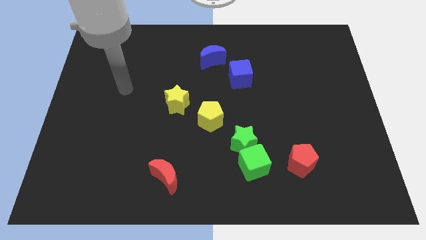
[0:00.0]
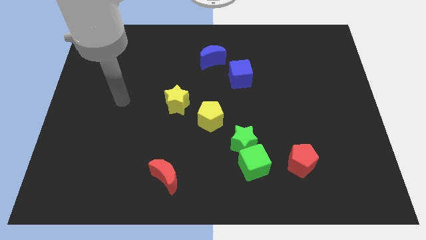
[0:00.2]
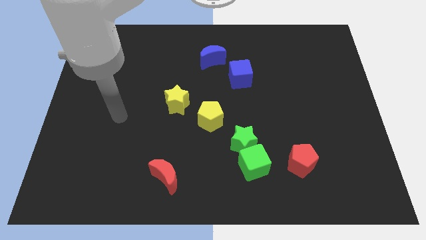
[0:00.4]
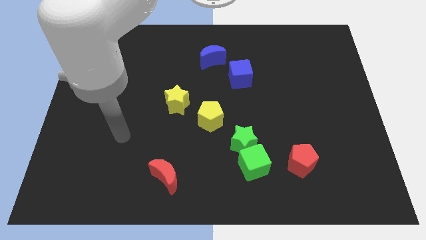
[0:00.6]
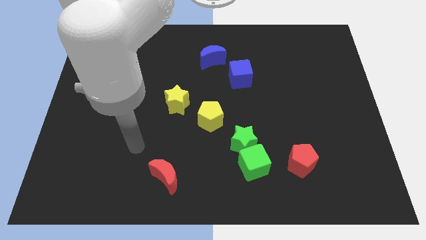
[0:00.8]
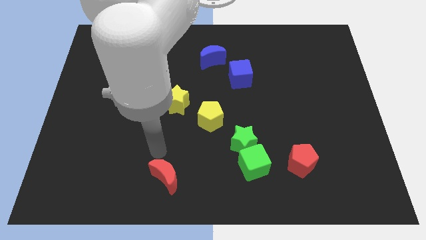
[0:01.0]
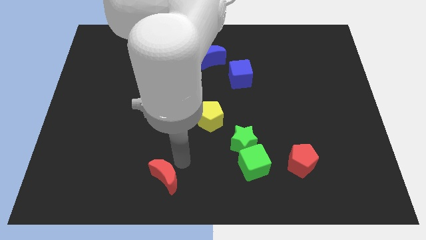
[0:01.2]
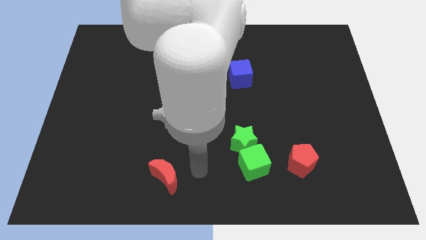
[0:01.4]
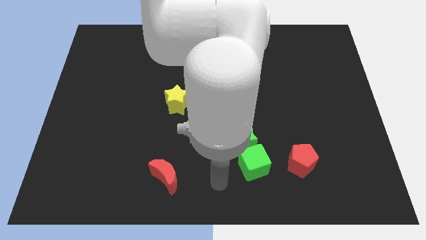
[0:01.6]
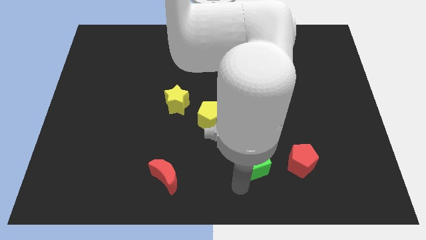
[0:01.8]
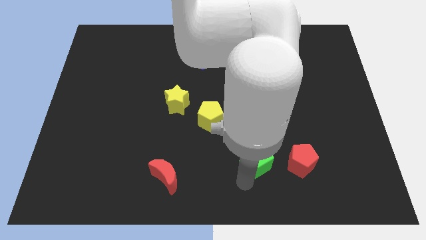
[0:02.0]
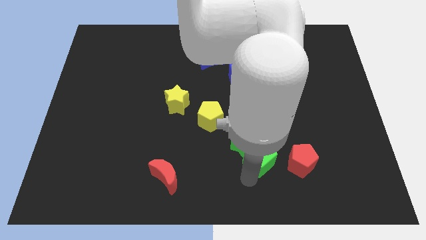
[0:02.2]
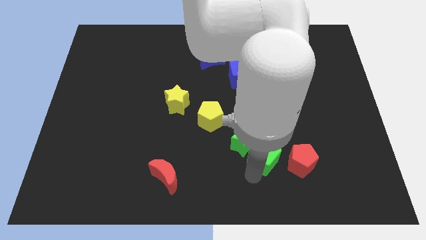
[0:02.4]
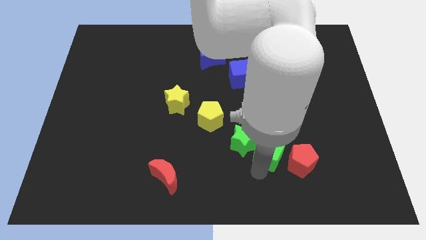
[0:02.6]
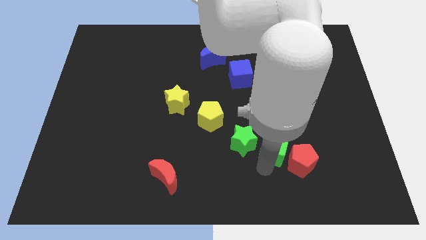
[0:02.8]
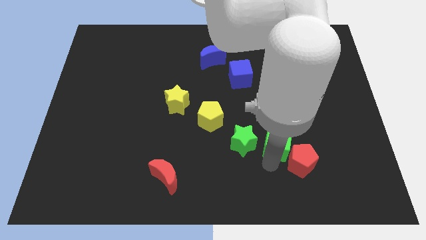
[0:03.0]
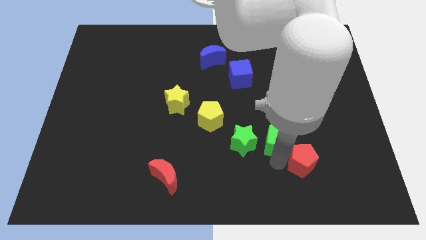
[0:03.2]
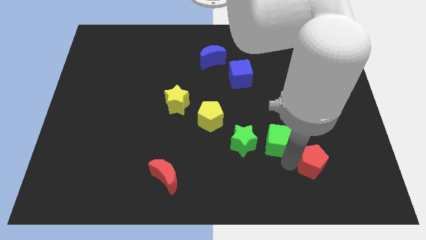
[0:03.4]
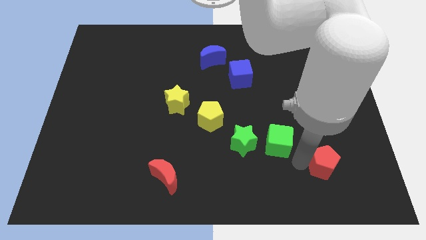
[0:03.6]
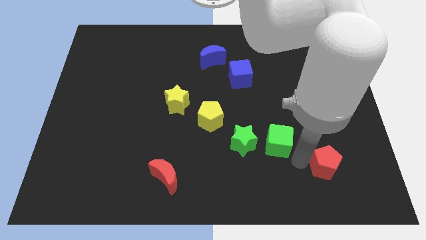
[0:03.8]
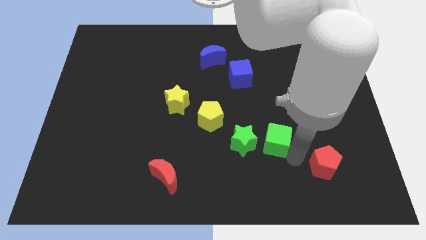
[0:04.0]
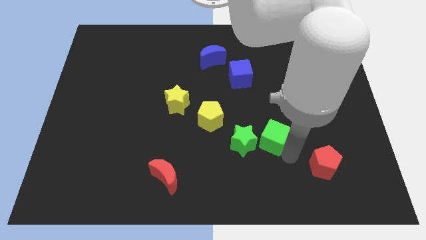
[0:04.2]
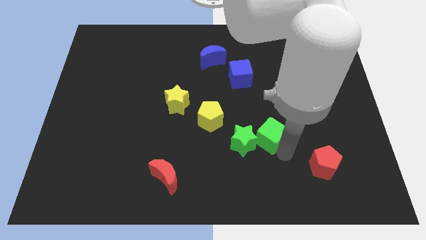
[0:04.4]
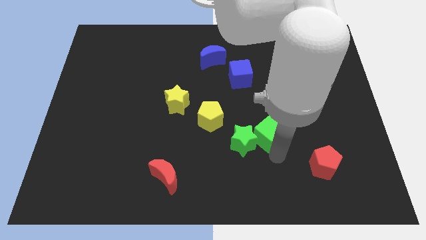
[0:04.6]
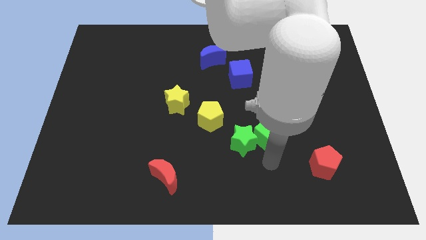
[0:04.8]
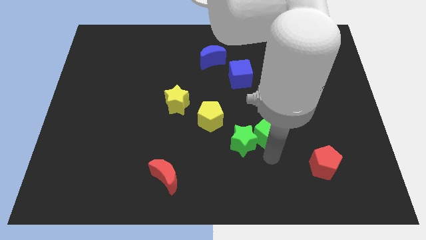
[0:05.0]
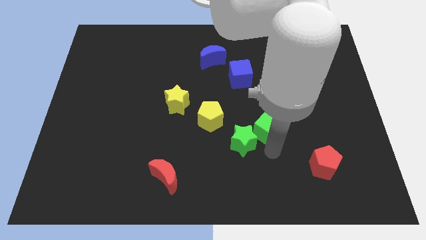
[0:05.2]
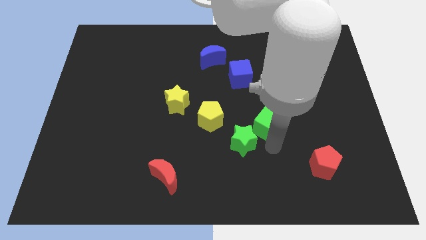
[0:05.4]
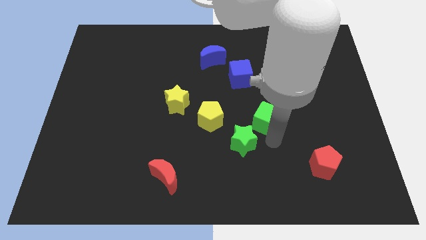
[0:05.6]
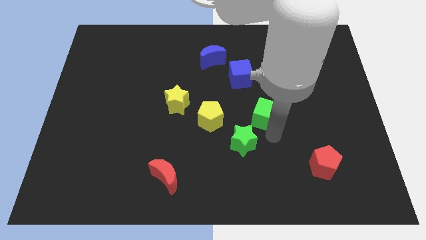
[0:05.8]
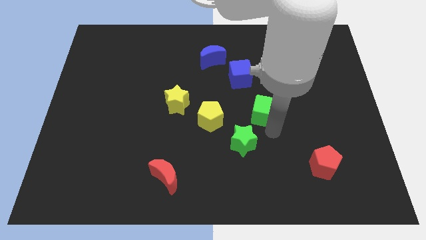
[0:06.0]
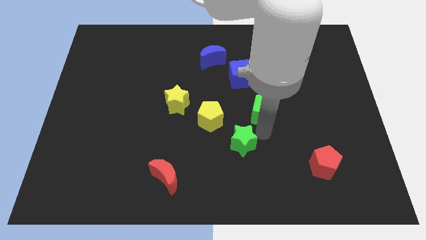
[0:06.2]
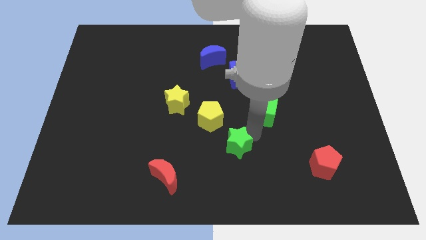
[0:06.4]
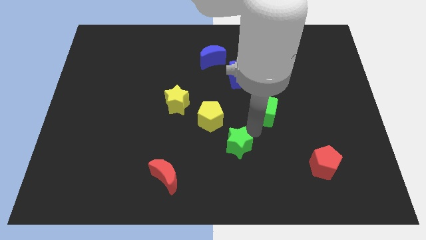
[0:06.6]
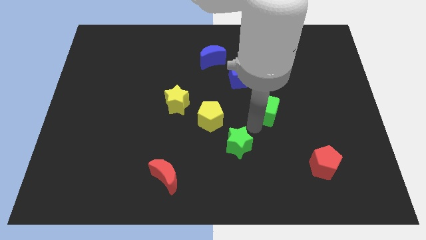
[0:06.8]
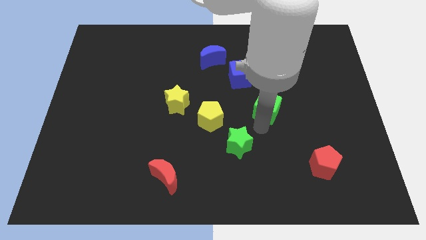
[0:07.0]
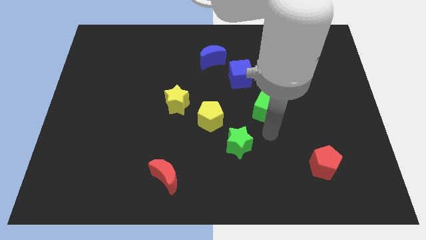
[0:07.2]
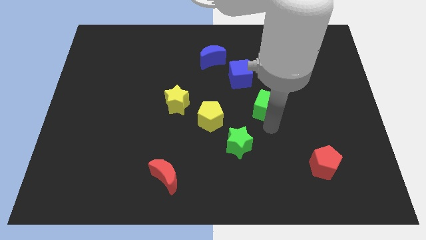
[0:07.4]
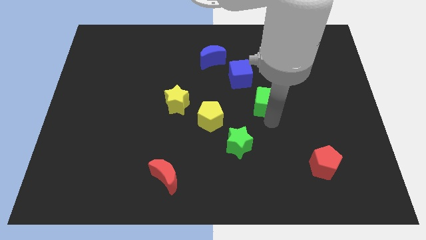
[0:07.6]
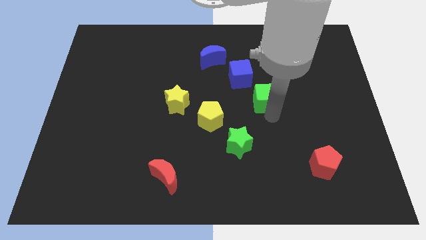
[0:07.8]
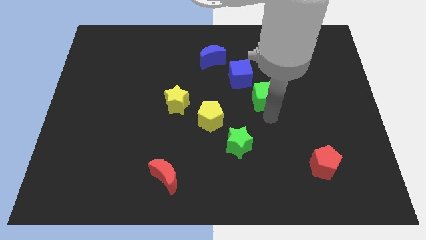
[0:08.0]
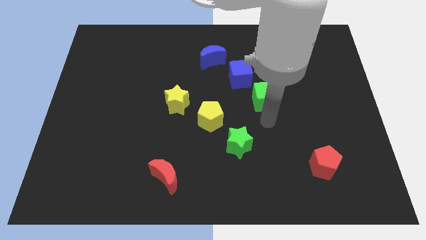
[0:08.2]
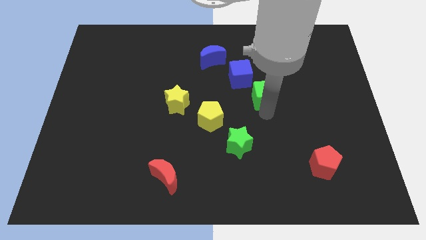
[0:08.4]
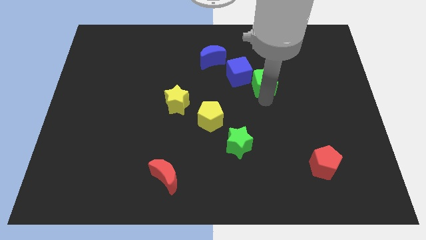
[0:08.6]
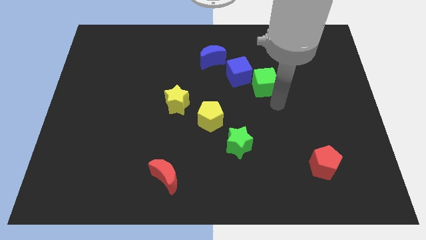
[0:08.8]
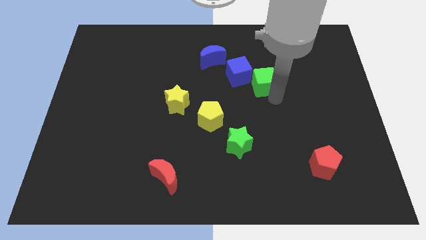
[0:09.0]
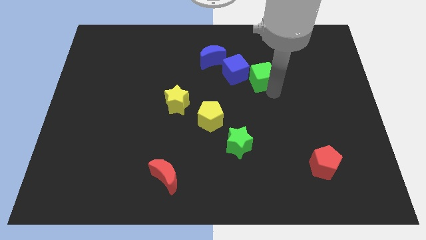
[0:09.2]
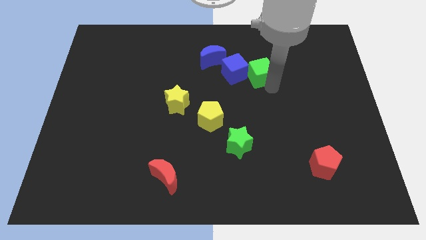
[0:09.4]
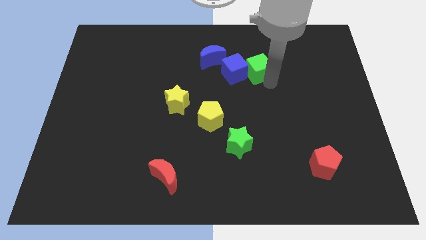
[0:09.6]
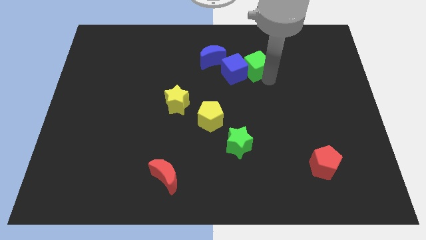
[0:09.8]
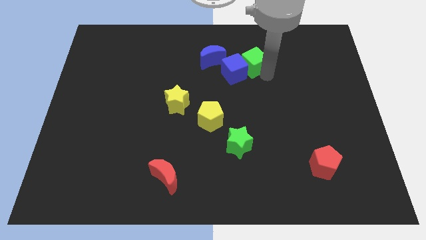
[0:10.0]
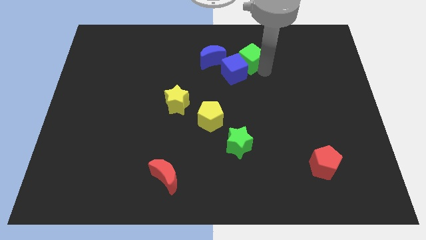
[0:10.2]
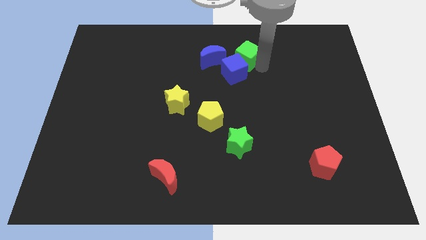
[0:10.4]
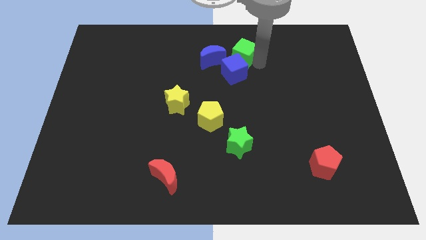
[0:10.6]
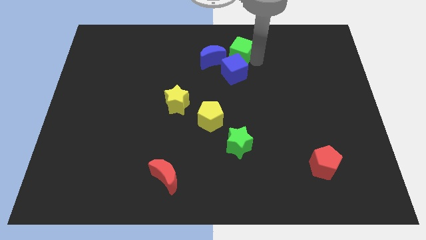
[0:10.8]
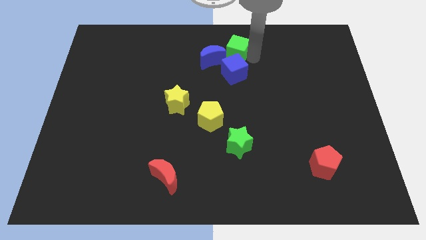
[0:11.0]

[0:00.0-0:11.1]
push the green cube to the top side

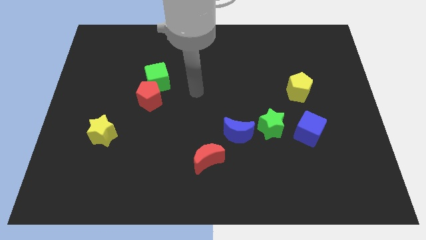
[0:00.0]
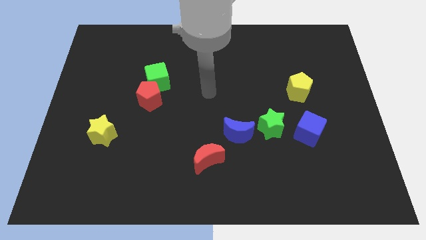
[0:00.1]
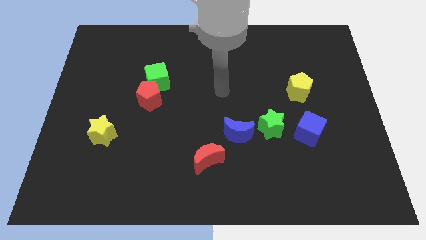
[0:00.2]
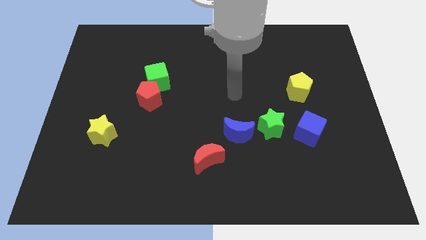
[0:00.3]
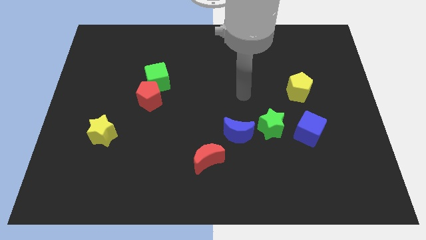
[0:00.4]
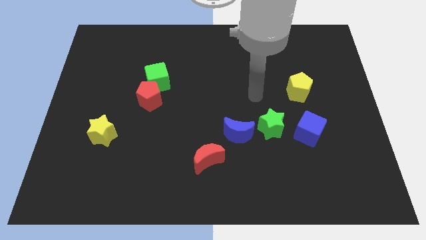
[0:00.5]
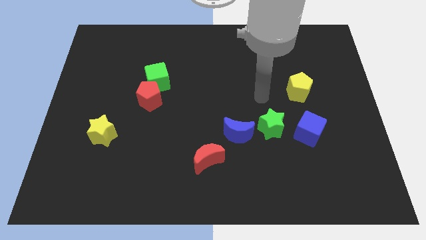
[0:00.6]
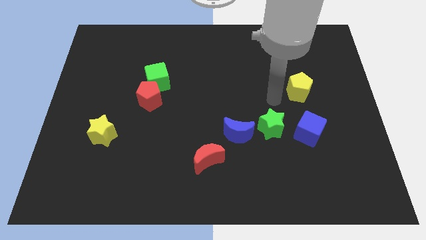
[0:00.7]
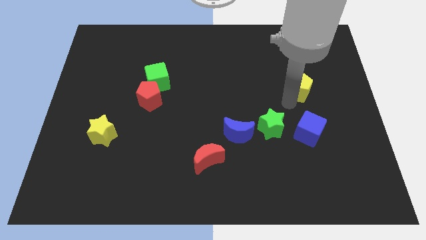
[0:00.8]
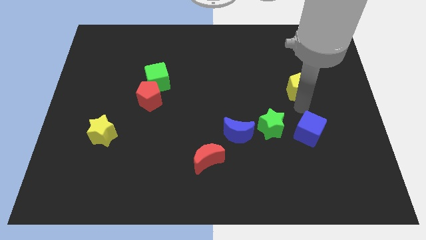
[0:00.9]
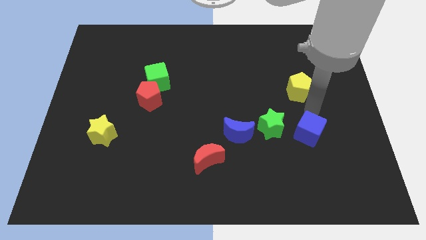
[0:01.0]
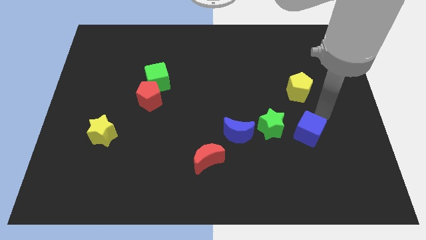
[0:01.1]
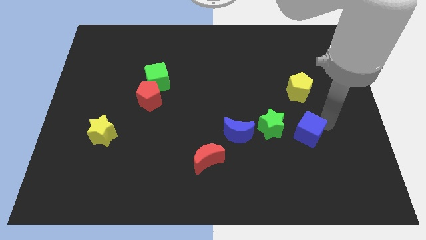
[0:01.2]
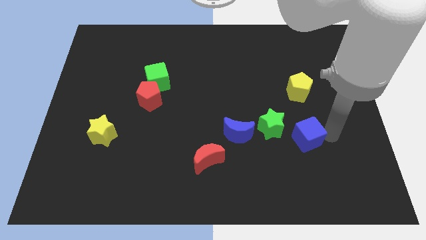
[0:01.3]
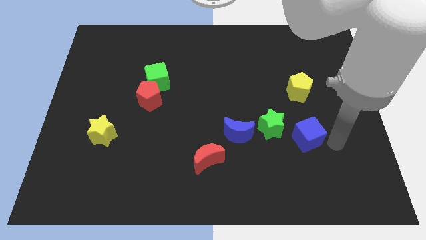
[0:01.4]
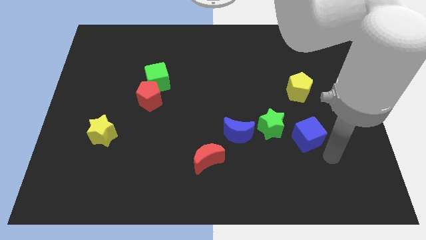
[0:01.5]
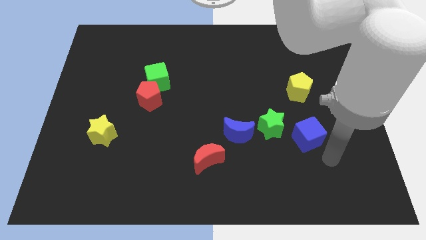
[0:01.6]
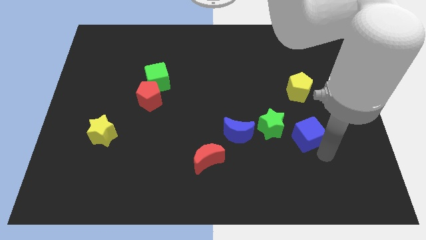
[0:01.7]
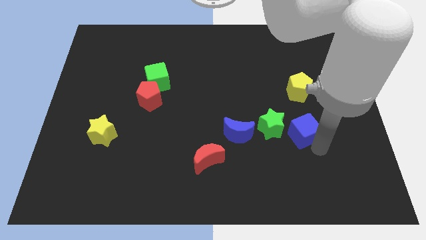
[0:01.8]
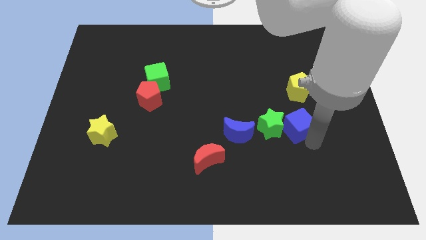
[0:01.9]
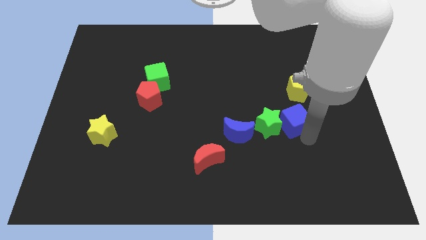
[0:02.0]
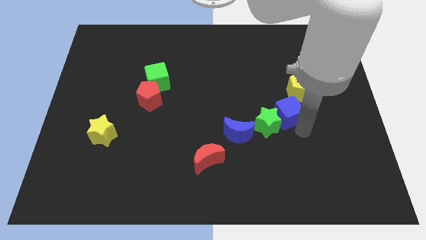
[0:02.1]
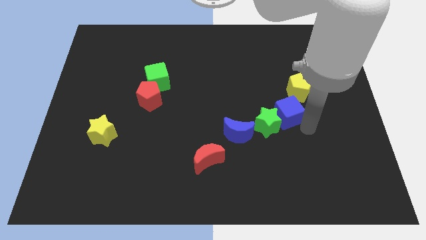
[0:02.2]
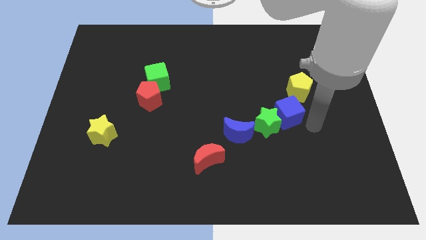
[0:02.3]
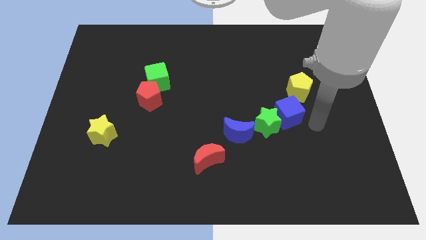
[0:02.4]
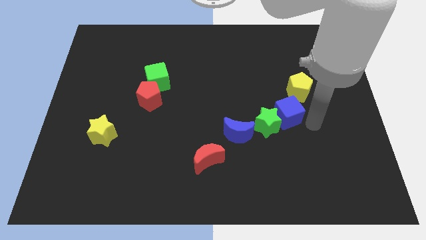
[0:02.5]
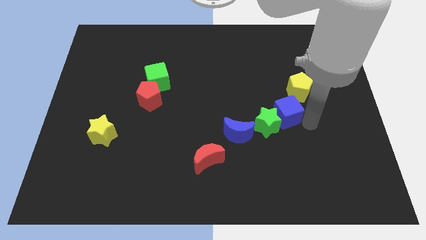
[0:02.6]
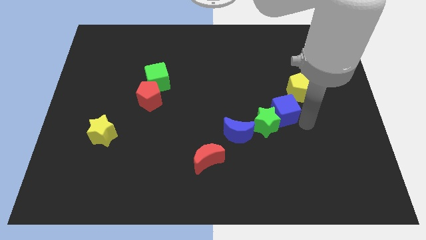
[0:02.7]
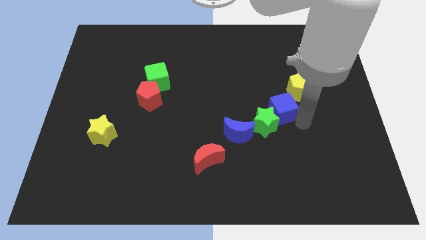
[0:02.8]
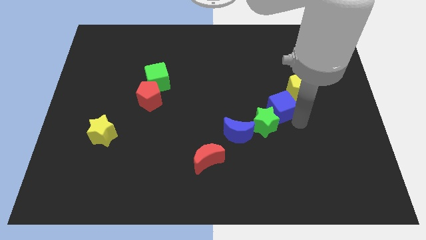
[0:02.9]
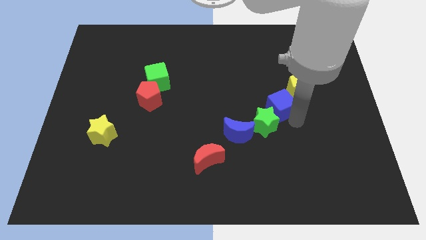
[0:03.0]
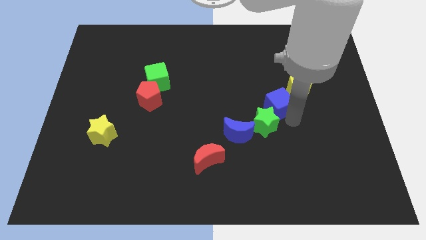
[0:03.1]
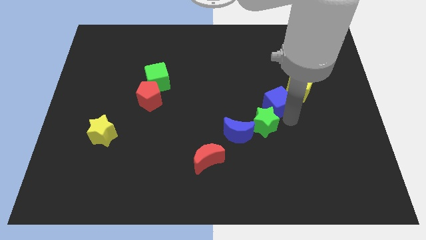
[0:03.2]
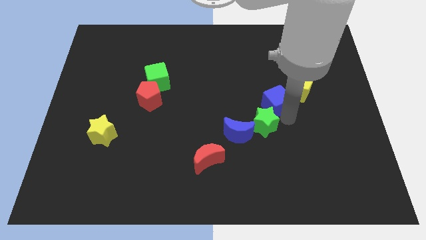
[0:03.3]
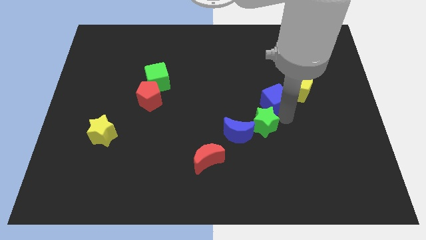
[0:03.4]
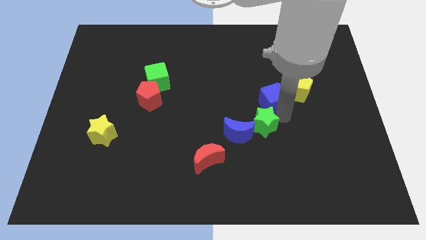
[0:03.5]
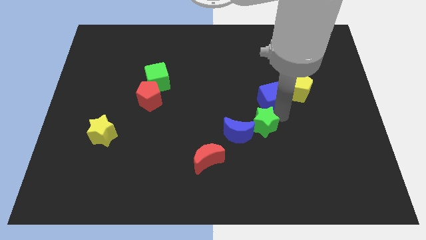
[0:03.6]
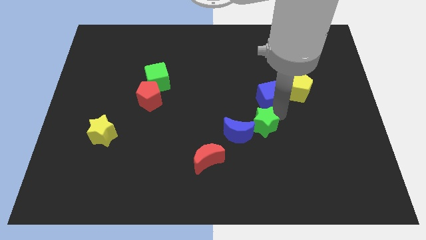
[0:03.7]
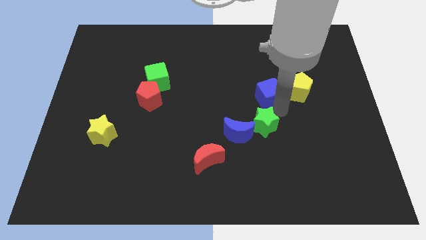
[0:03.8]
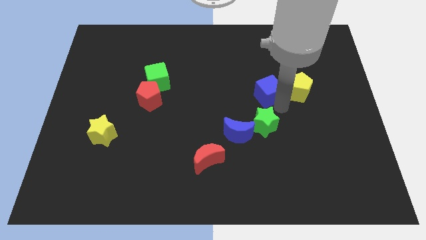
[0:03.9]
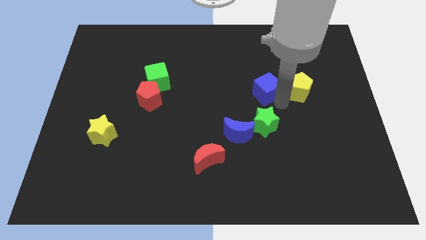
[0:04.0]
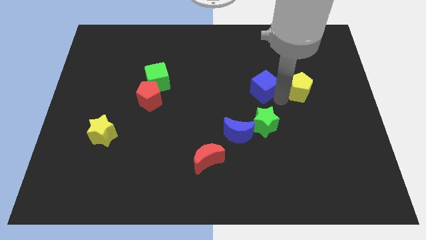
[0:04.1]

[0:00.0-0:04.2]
put the blue cube to the middle of the board
